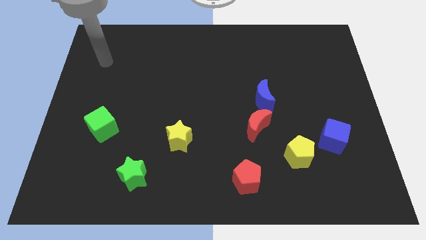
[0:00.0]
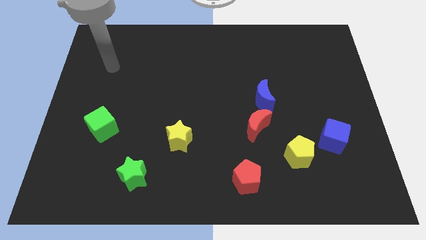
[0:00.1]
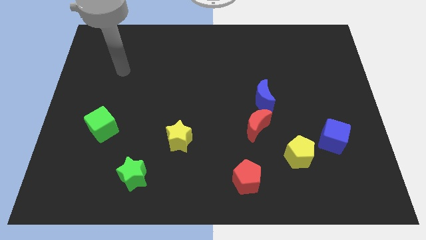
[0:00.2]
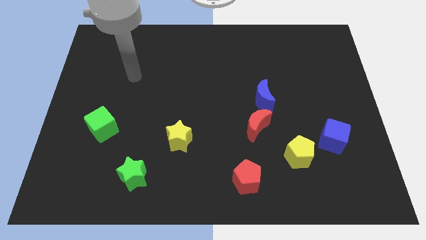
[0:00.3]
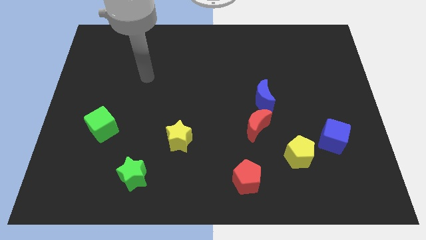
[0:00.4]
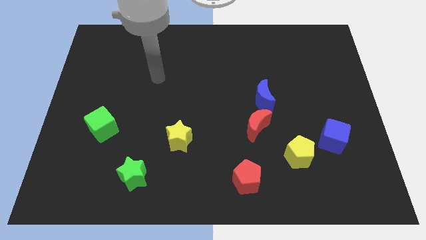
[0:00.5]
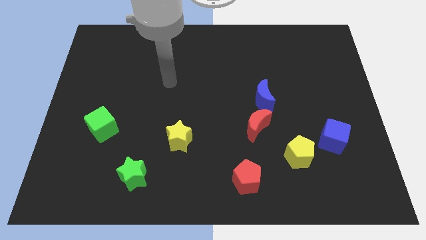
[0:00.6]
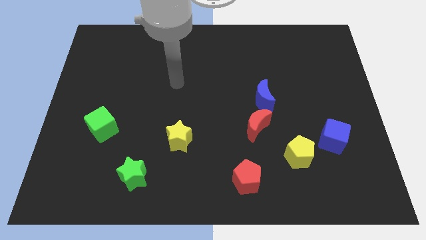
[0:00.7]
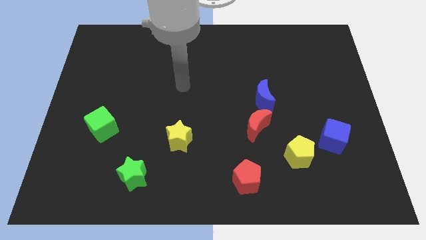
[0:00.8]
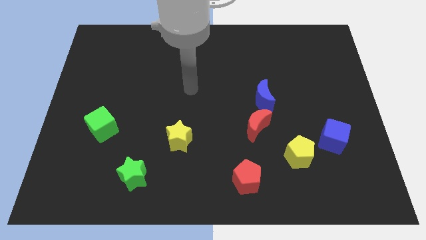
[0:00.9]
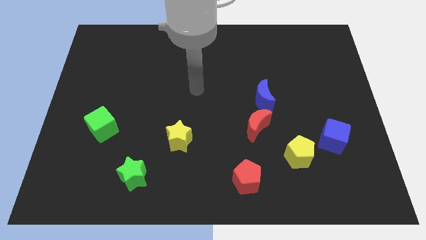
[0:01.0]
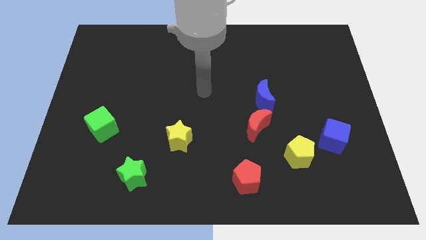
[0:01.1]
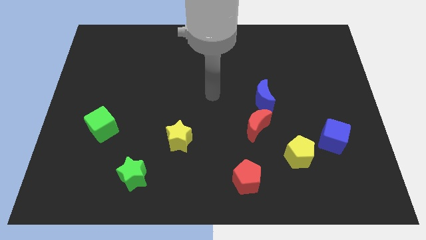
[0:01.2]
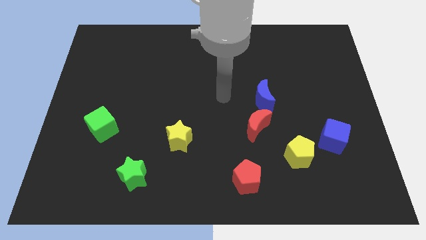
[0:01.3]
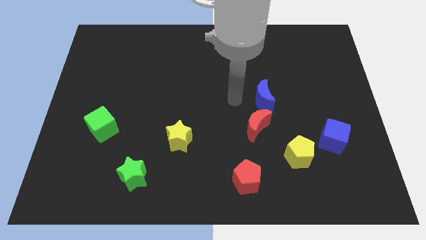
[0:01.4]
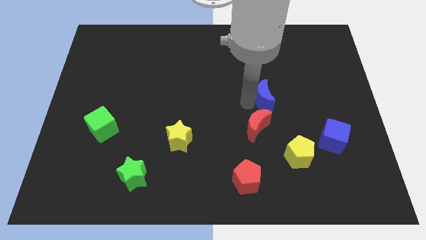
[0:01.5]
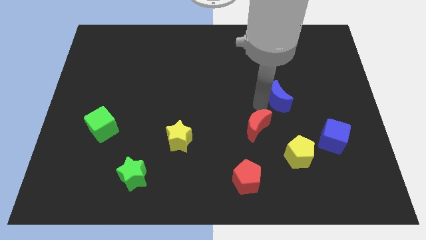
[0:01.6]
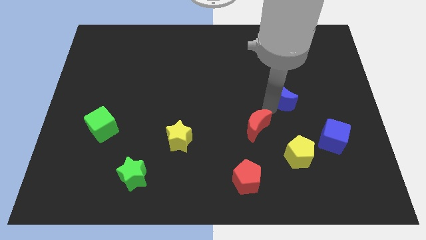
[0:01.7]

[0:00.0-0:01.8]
pull the red moon apart from the blue moon

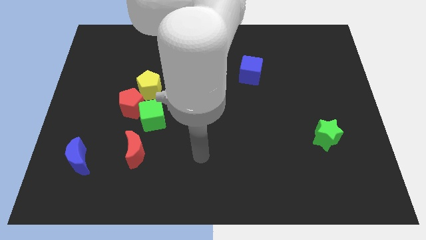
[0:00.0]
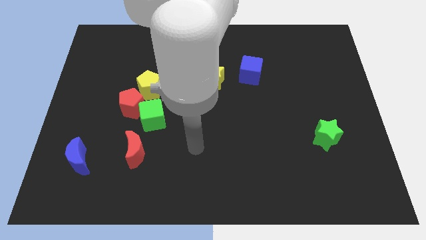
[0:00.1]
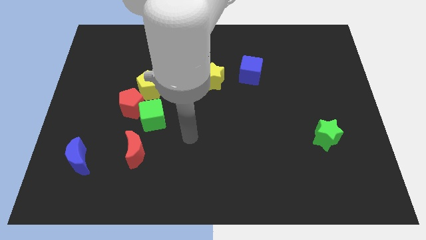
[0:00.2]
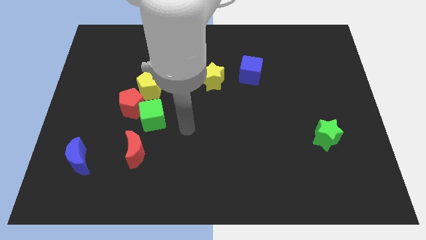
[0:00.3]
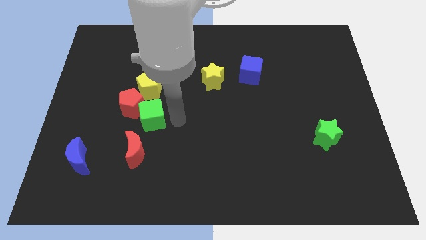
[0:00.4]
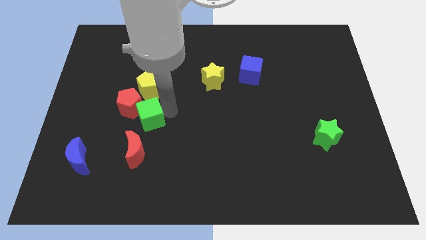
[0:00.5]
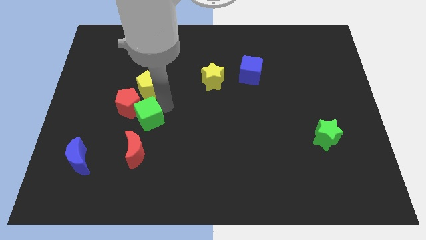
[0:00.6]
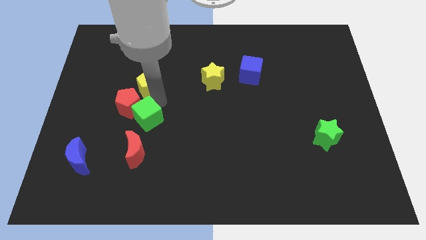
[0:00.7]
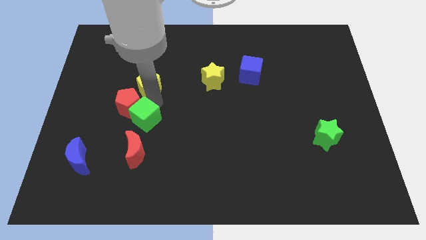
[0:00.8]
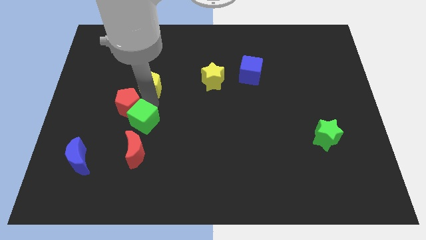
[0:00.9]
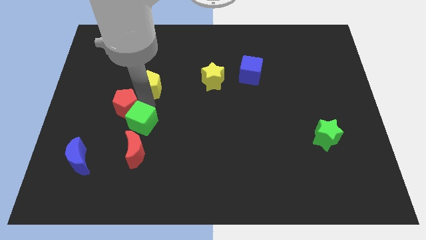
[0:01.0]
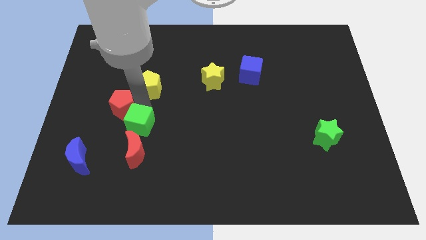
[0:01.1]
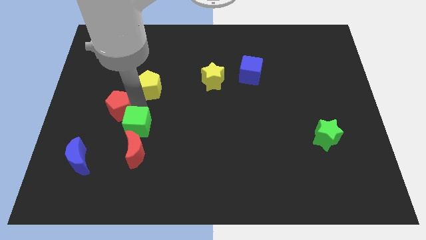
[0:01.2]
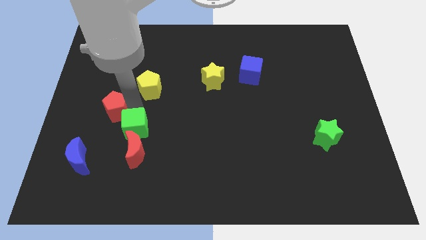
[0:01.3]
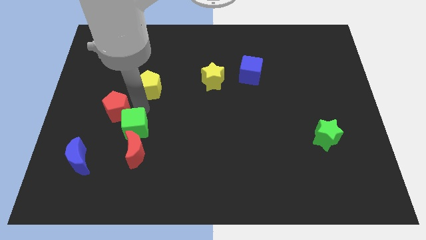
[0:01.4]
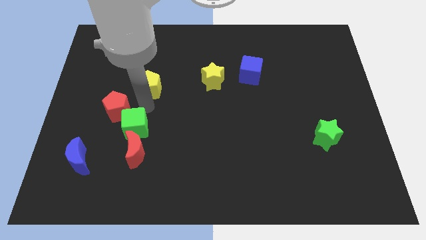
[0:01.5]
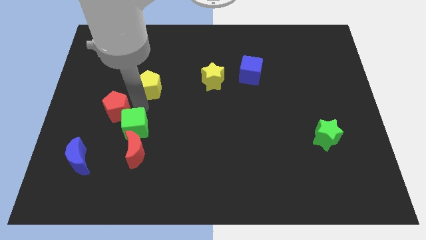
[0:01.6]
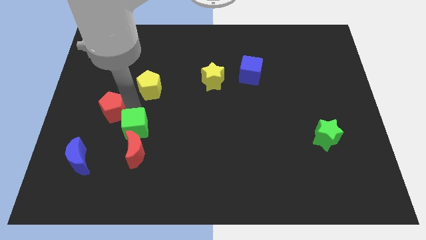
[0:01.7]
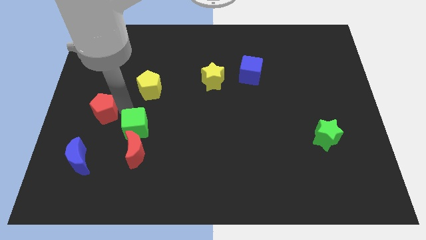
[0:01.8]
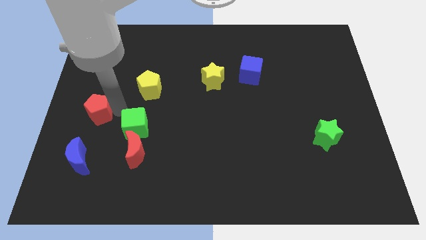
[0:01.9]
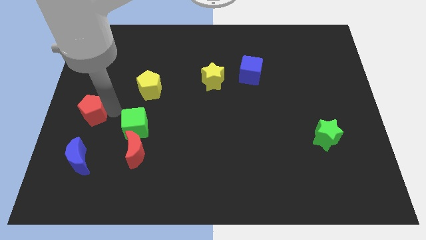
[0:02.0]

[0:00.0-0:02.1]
separate the red pentagon from the green cube and yellow pentagon

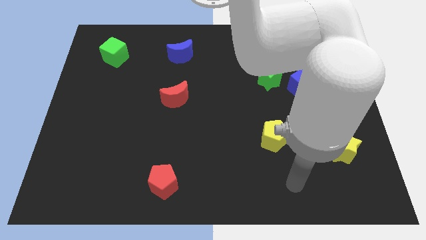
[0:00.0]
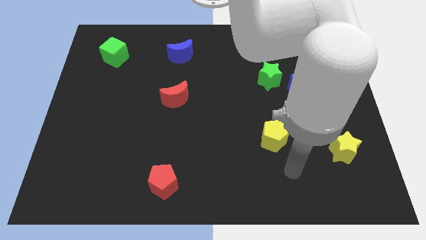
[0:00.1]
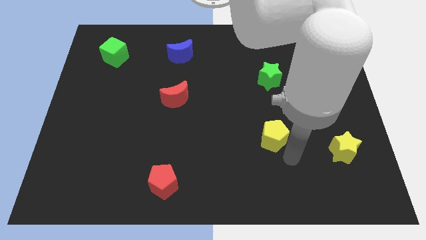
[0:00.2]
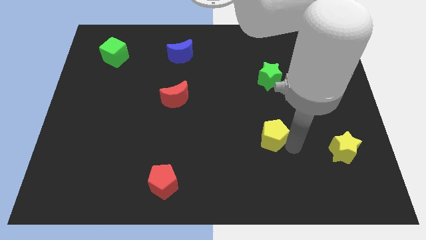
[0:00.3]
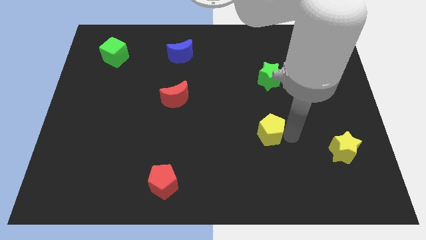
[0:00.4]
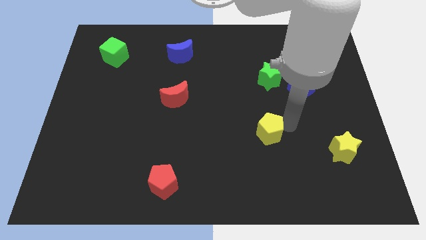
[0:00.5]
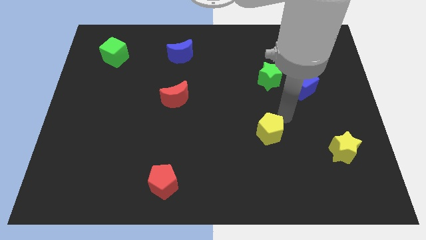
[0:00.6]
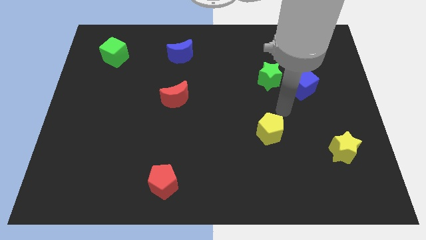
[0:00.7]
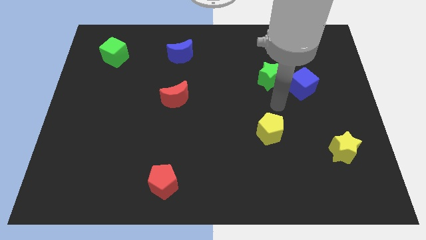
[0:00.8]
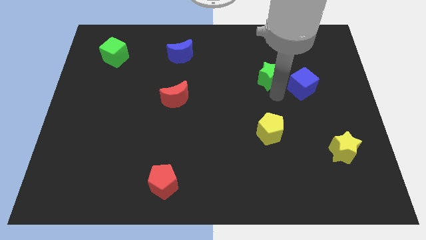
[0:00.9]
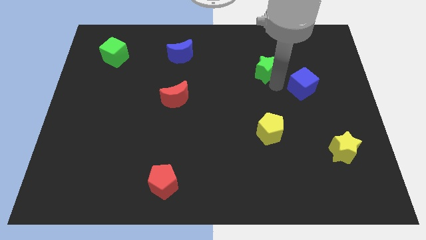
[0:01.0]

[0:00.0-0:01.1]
pull the blue cube apart from the green star

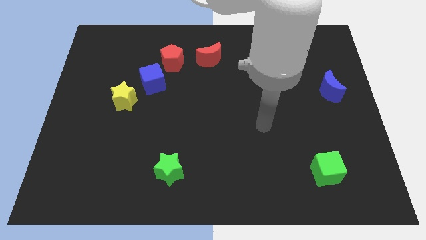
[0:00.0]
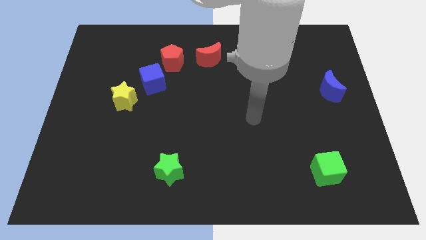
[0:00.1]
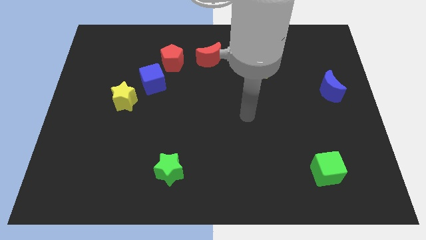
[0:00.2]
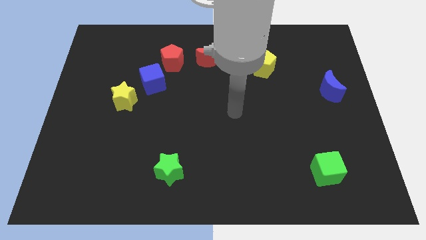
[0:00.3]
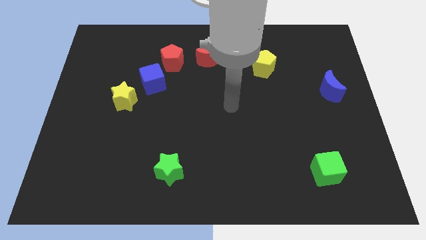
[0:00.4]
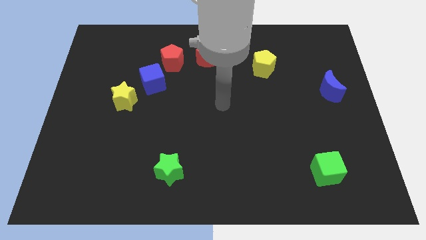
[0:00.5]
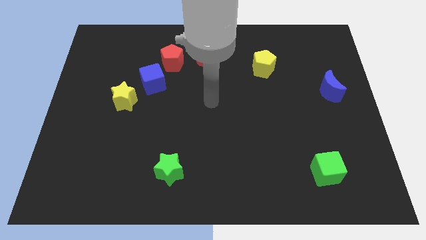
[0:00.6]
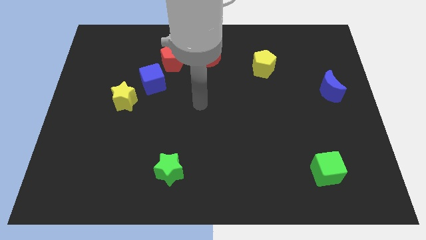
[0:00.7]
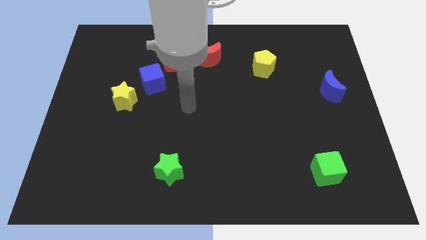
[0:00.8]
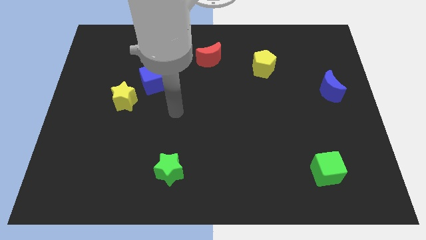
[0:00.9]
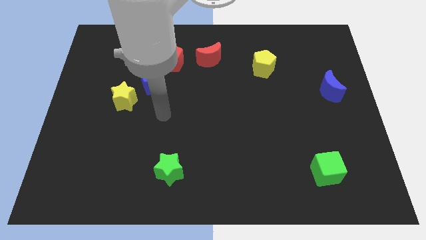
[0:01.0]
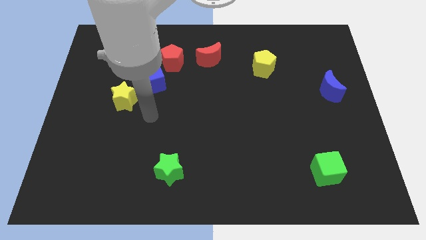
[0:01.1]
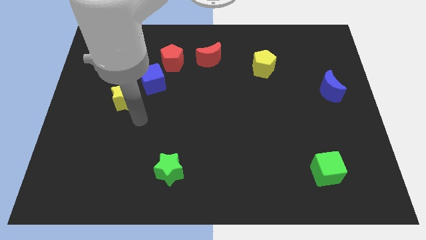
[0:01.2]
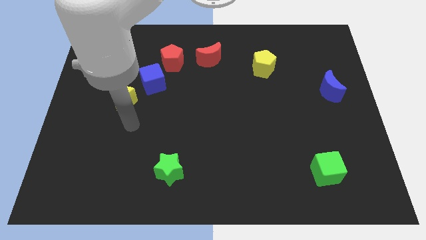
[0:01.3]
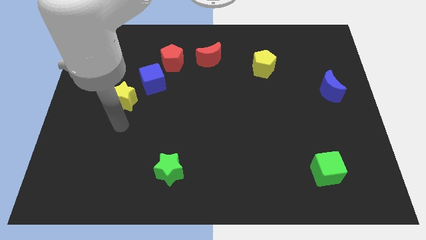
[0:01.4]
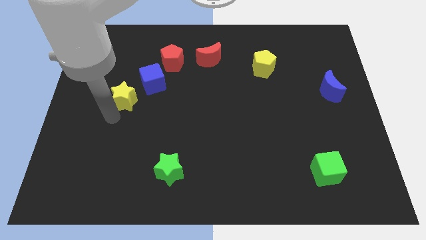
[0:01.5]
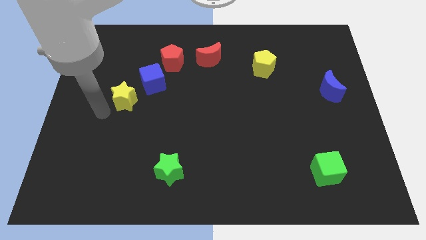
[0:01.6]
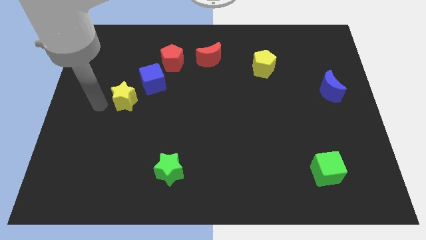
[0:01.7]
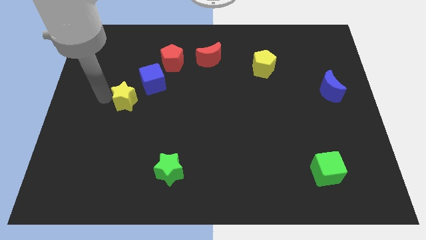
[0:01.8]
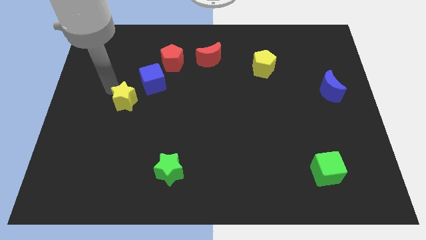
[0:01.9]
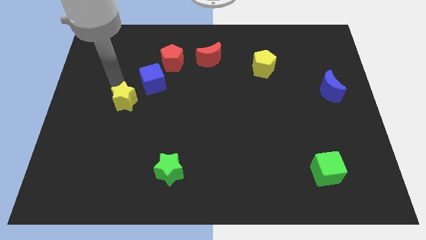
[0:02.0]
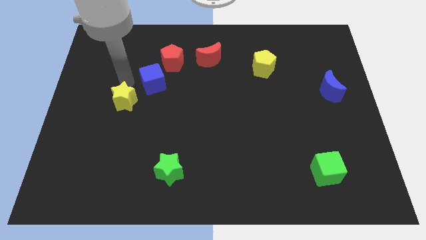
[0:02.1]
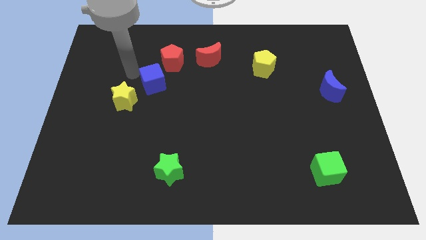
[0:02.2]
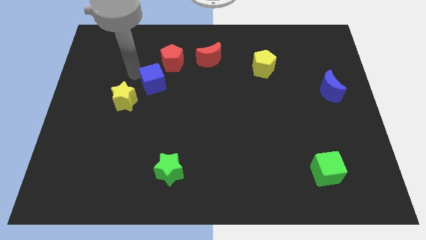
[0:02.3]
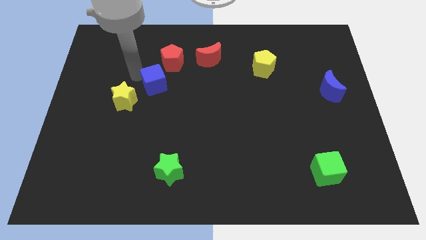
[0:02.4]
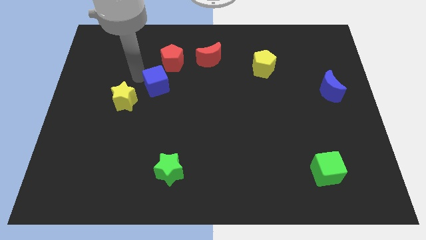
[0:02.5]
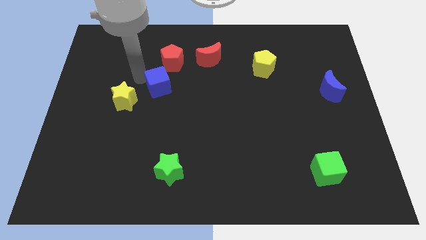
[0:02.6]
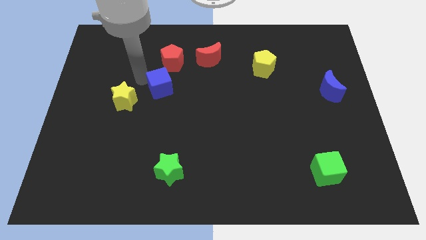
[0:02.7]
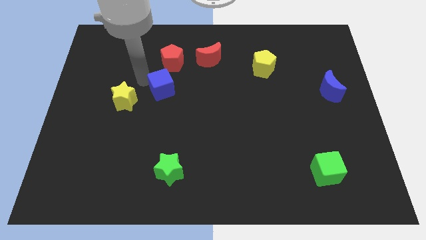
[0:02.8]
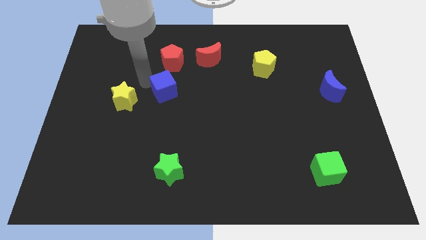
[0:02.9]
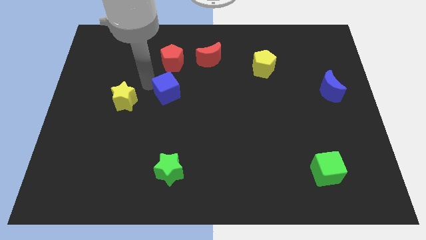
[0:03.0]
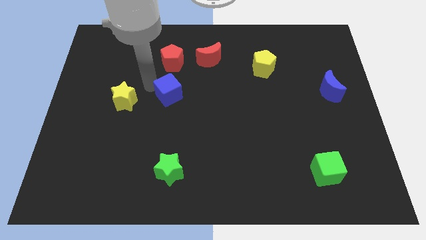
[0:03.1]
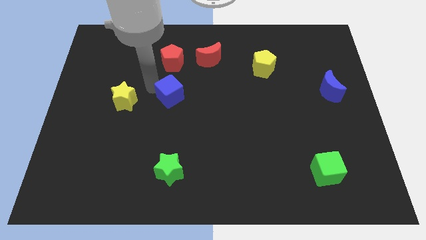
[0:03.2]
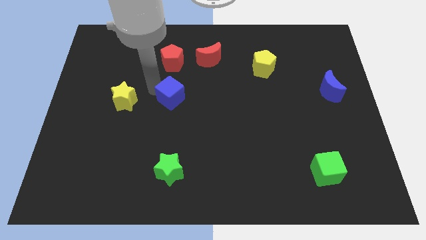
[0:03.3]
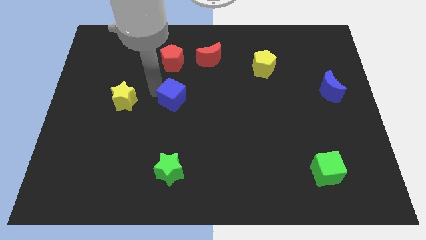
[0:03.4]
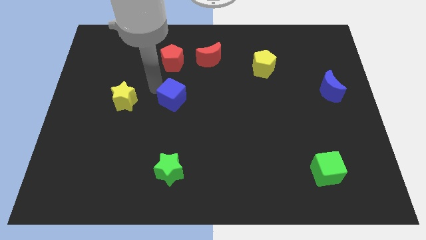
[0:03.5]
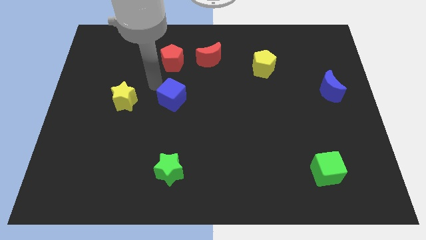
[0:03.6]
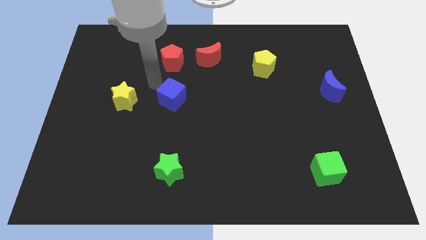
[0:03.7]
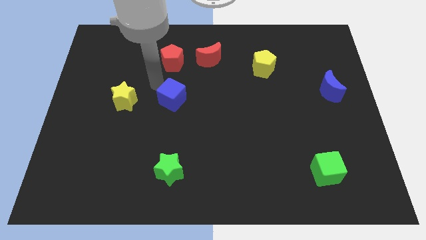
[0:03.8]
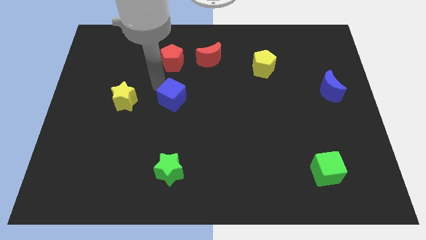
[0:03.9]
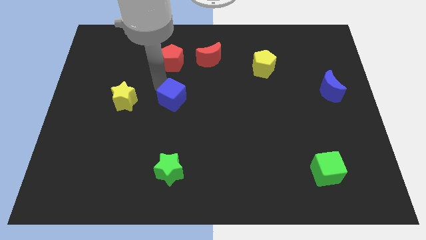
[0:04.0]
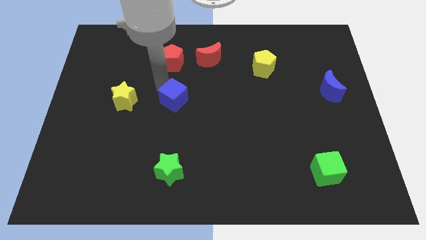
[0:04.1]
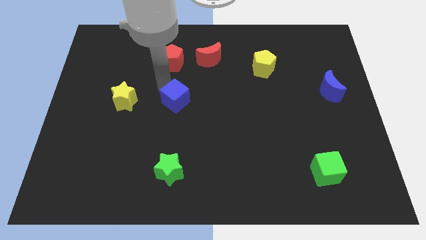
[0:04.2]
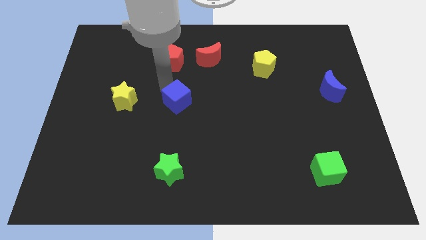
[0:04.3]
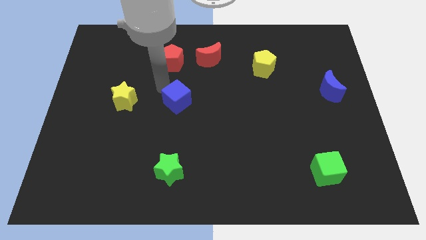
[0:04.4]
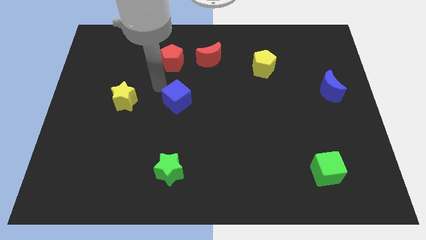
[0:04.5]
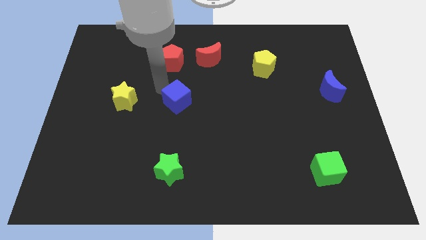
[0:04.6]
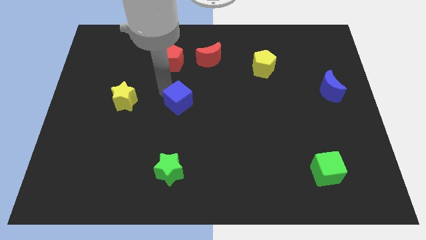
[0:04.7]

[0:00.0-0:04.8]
separate the blue cube from the red pentagon and yellow star
